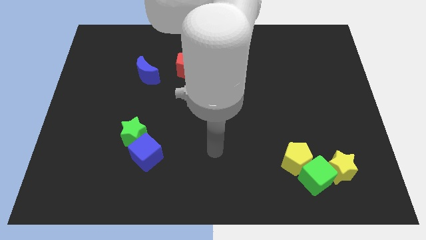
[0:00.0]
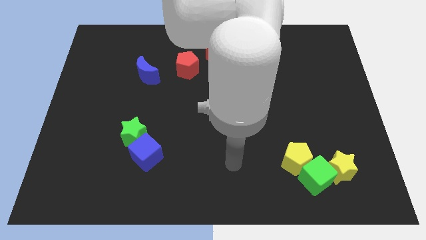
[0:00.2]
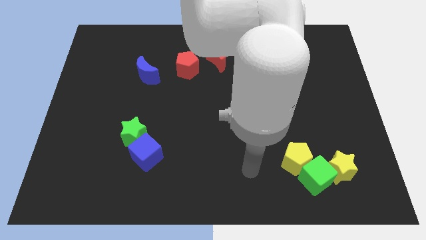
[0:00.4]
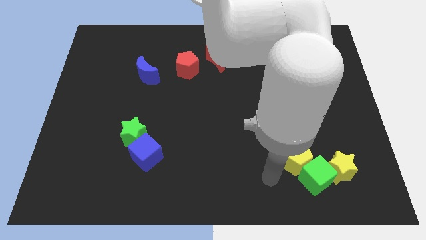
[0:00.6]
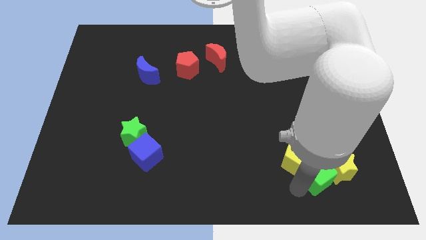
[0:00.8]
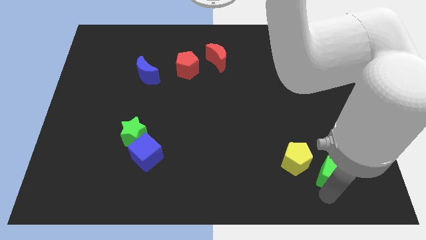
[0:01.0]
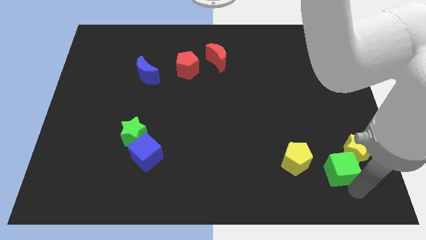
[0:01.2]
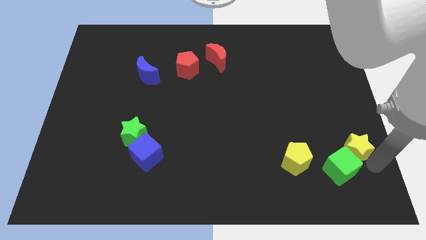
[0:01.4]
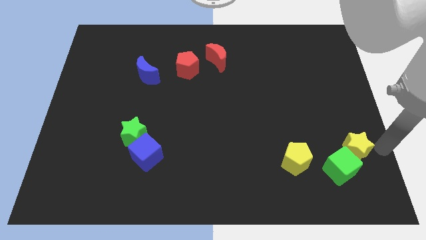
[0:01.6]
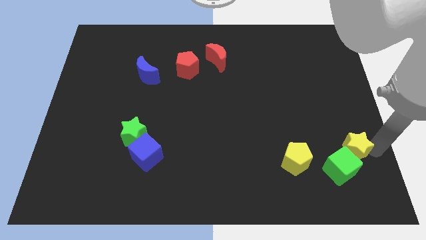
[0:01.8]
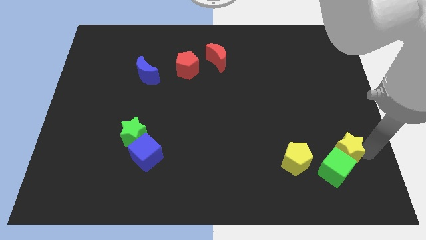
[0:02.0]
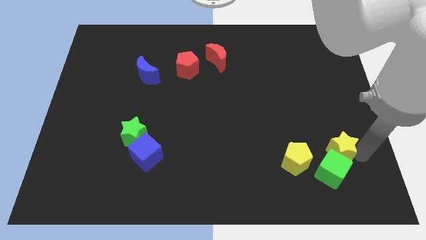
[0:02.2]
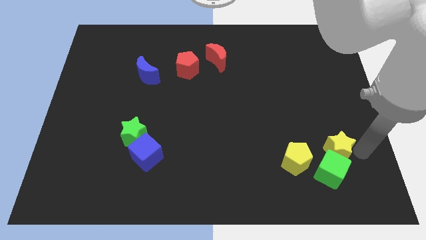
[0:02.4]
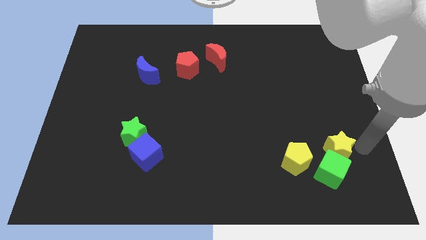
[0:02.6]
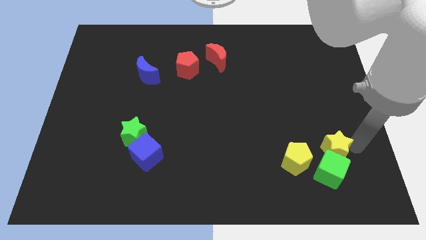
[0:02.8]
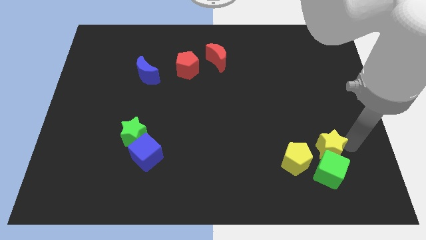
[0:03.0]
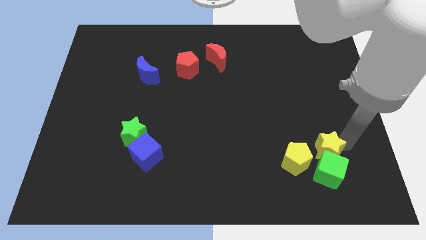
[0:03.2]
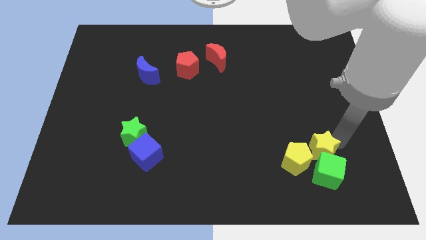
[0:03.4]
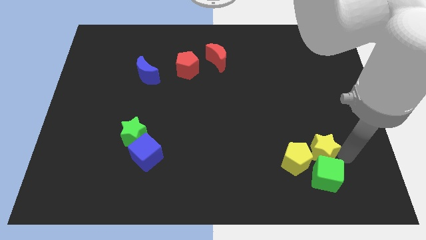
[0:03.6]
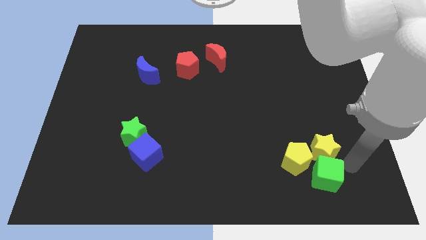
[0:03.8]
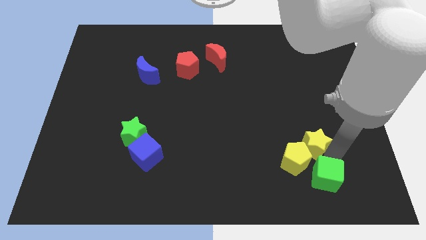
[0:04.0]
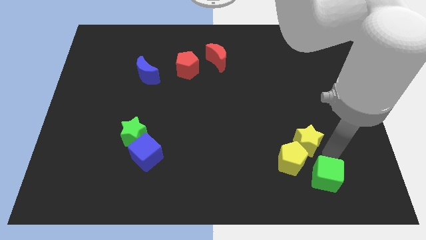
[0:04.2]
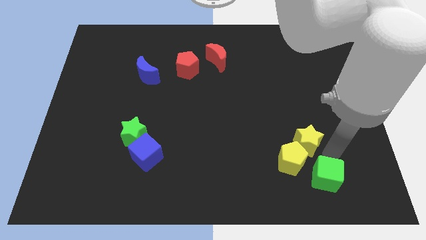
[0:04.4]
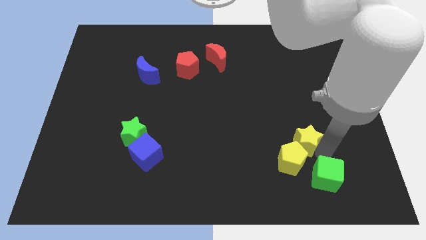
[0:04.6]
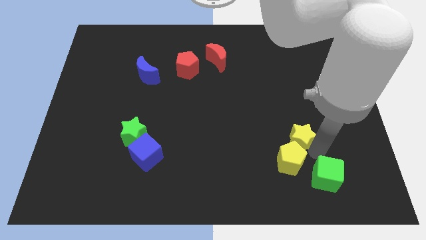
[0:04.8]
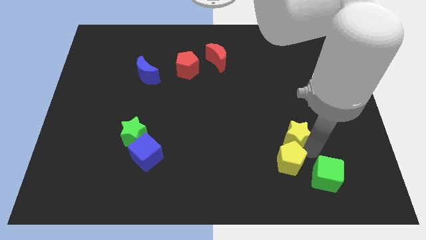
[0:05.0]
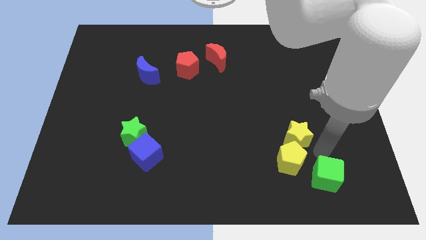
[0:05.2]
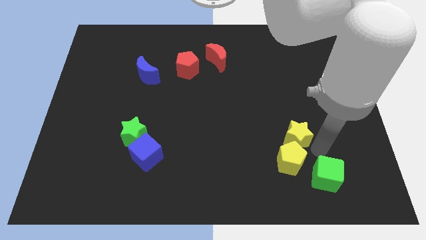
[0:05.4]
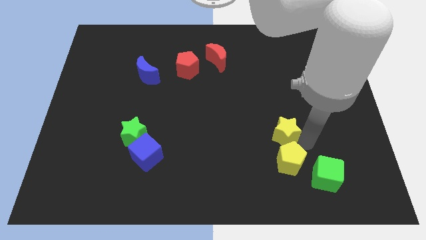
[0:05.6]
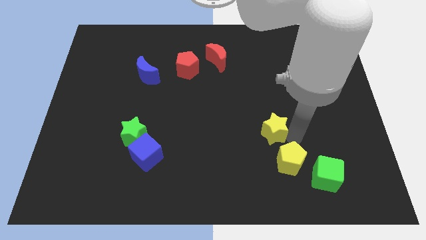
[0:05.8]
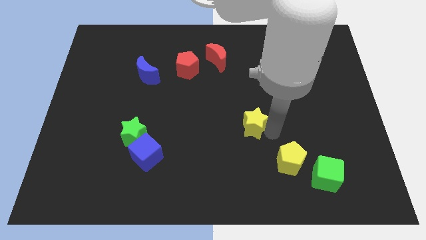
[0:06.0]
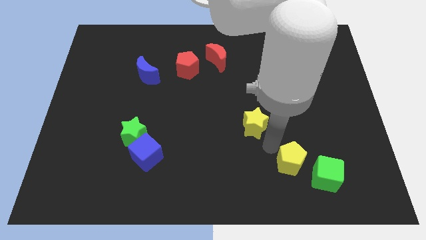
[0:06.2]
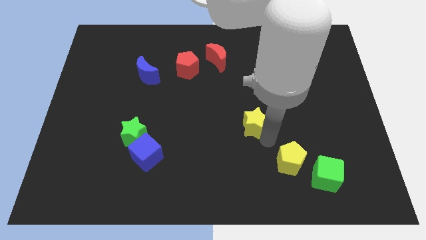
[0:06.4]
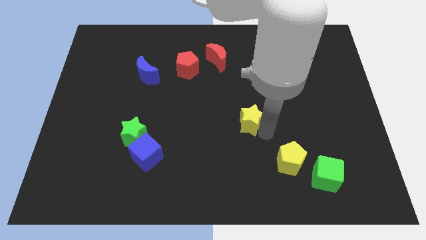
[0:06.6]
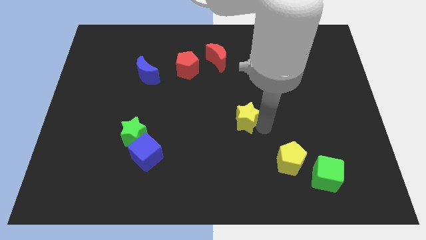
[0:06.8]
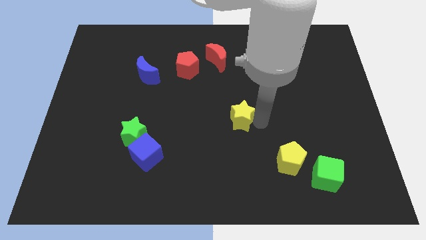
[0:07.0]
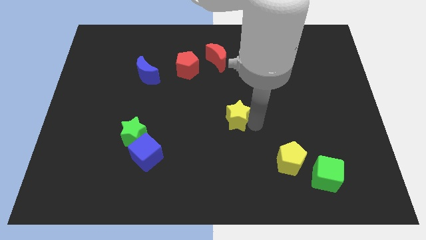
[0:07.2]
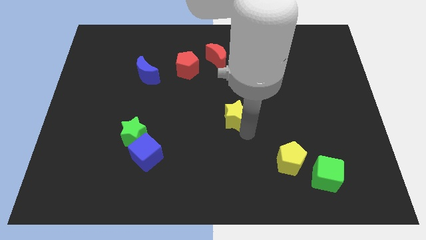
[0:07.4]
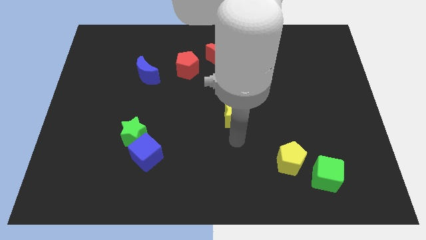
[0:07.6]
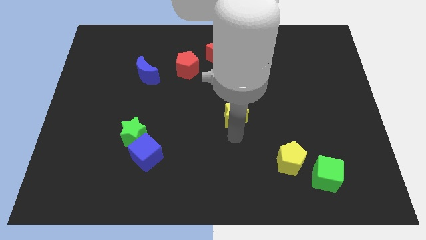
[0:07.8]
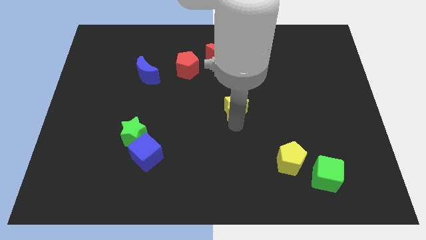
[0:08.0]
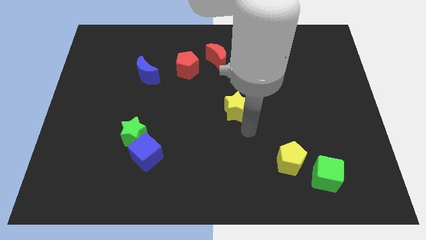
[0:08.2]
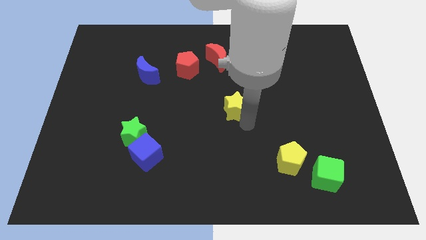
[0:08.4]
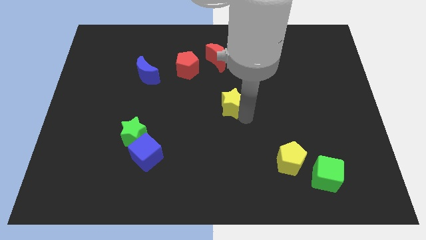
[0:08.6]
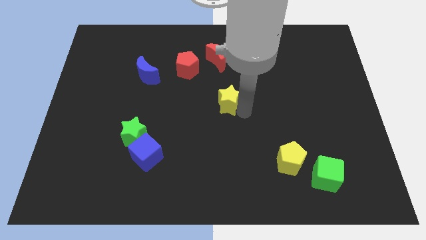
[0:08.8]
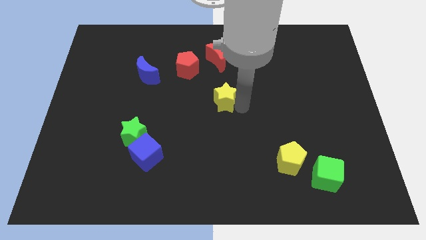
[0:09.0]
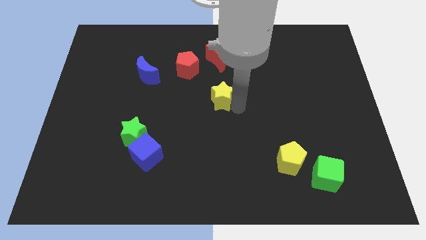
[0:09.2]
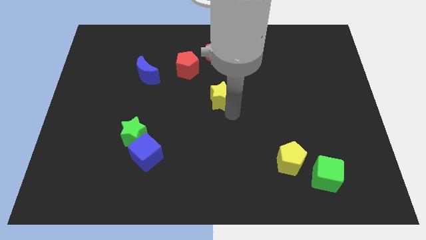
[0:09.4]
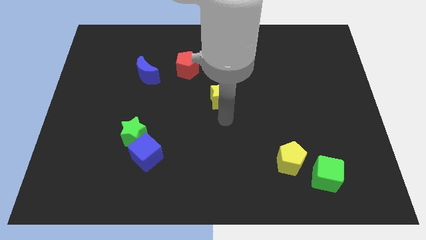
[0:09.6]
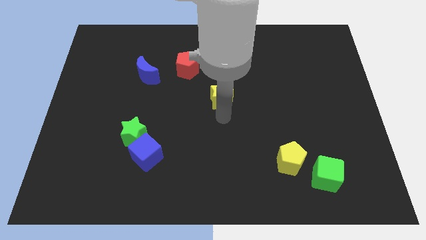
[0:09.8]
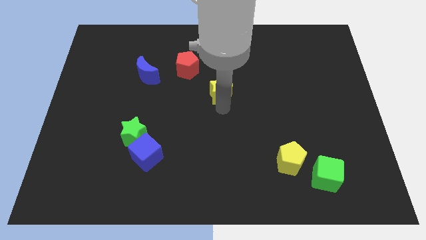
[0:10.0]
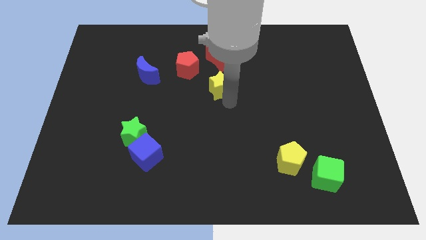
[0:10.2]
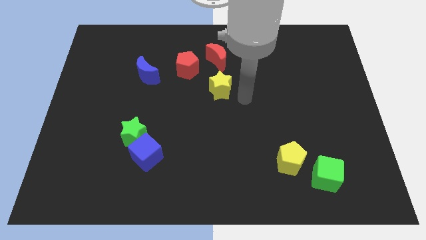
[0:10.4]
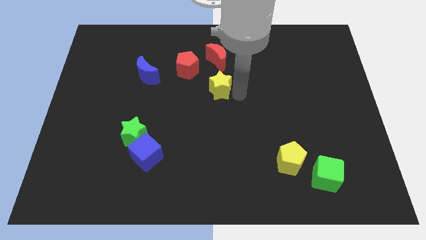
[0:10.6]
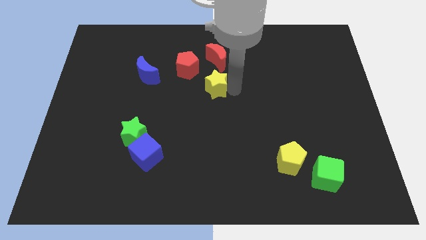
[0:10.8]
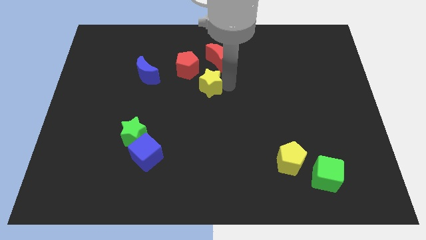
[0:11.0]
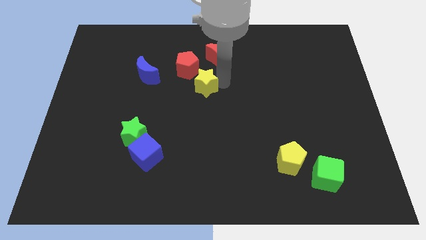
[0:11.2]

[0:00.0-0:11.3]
push the yellow star to the right of the blue moon
